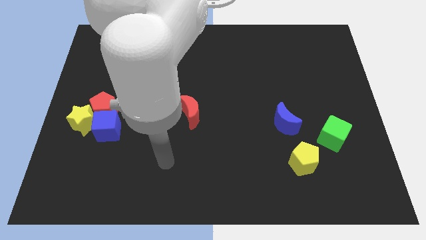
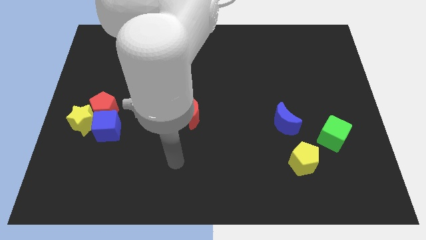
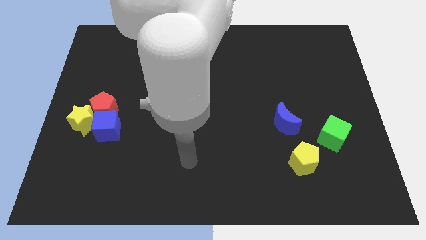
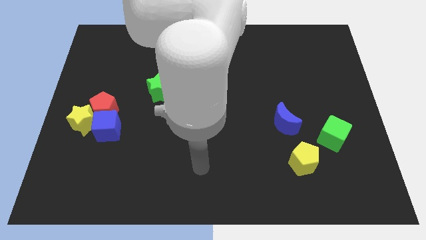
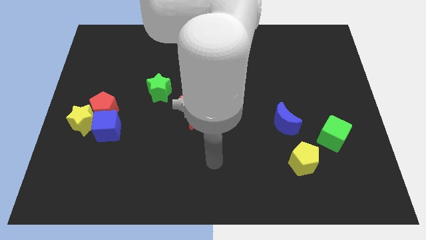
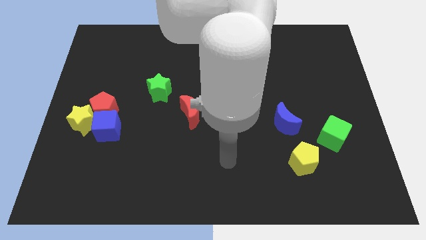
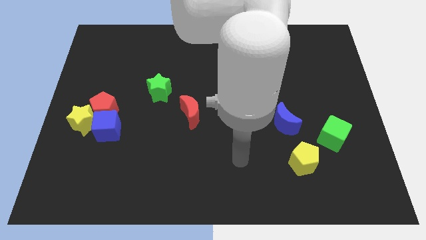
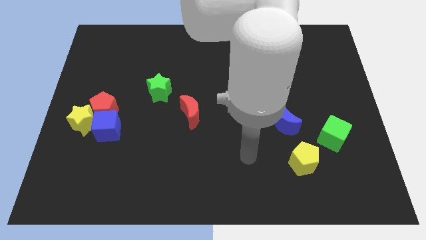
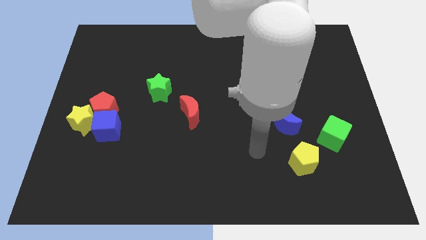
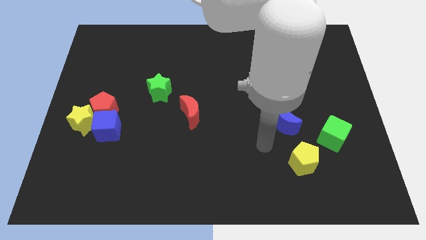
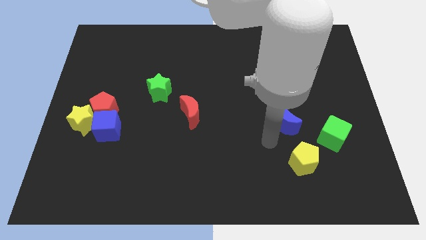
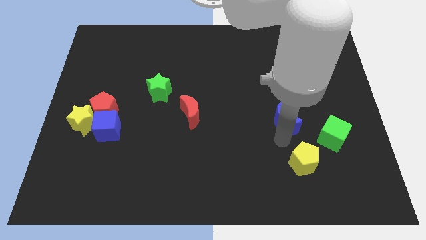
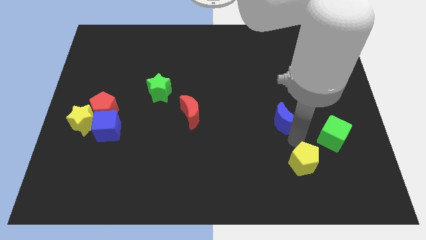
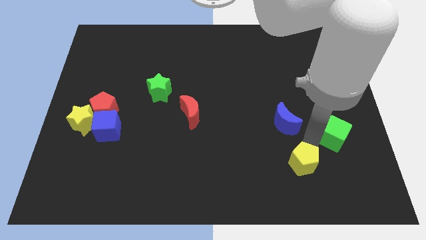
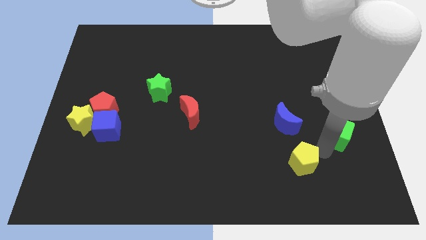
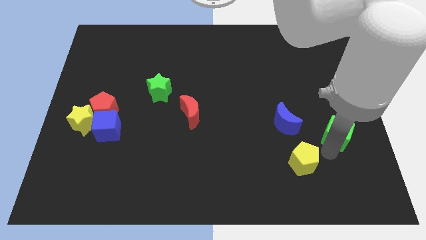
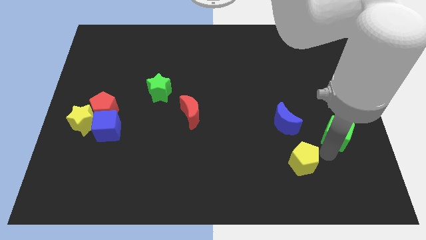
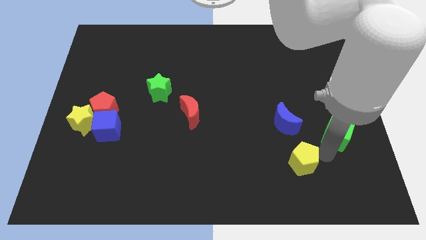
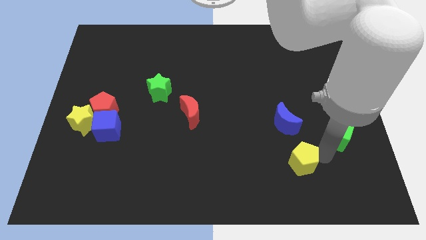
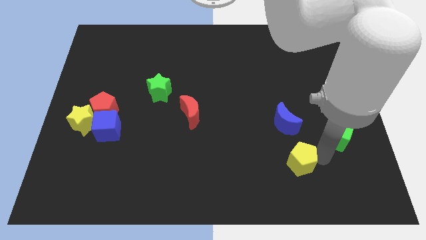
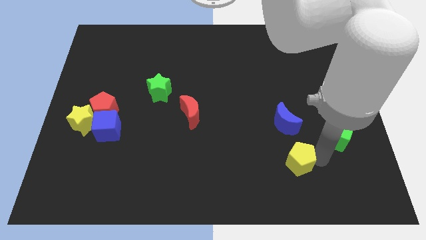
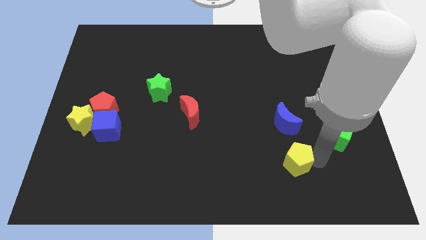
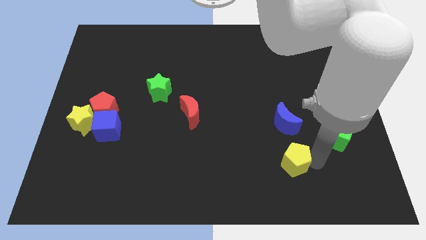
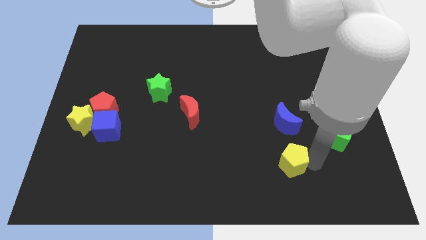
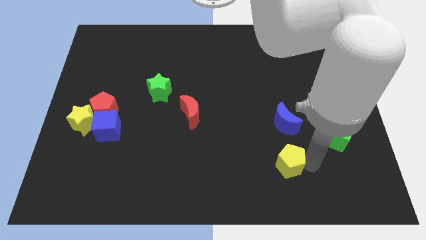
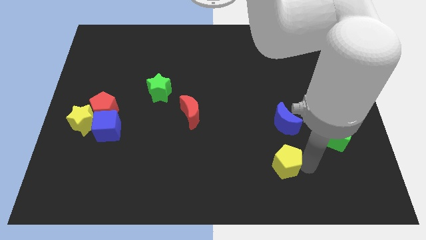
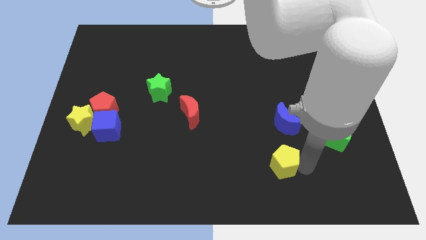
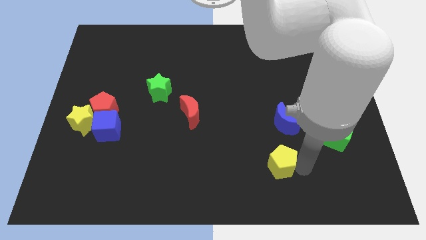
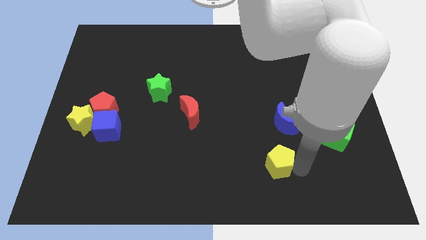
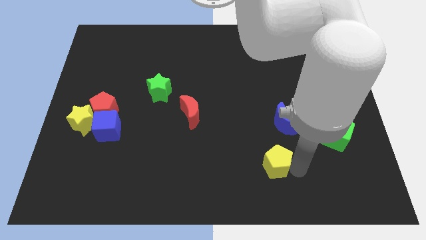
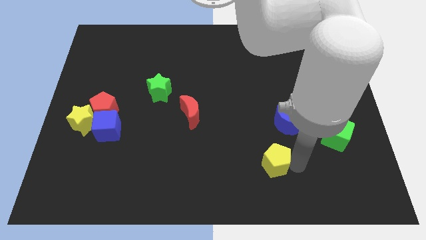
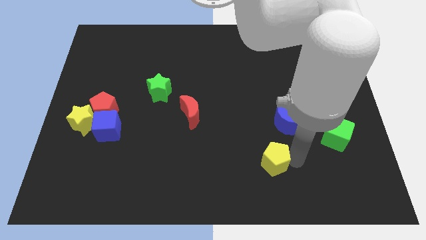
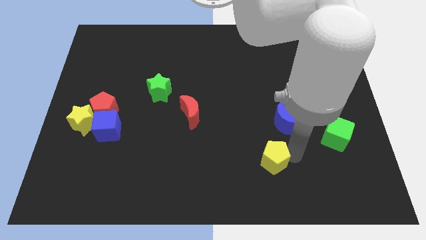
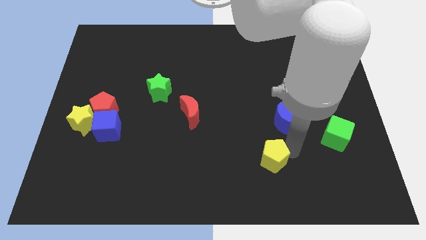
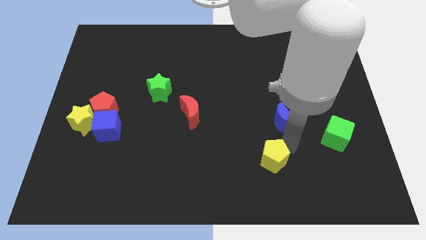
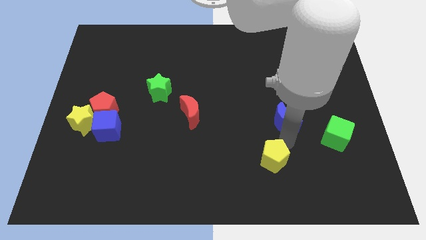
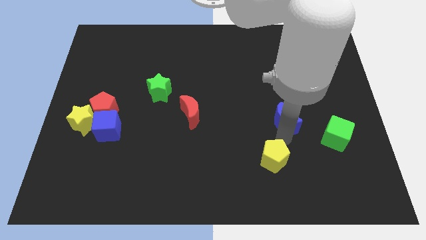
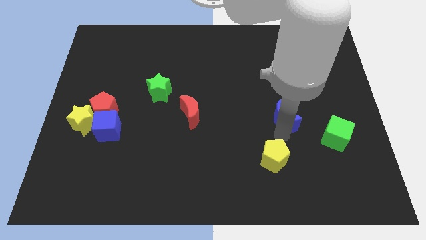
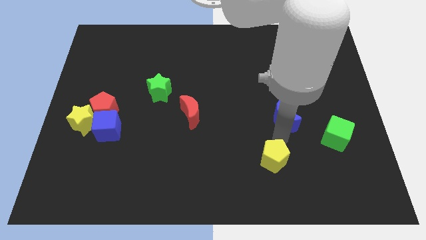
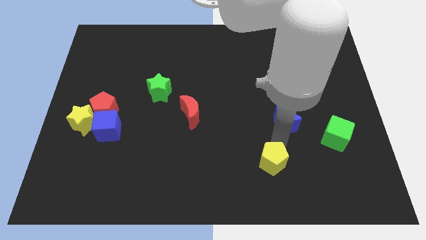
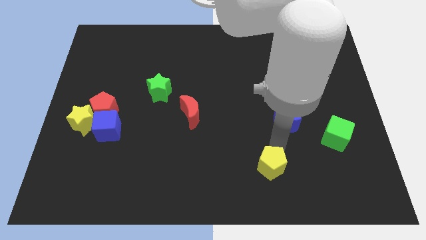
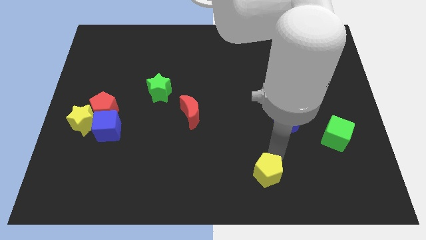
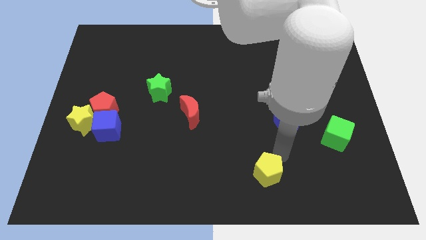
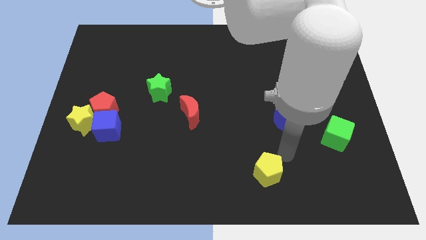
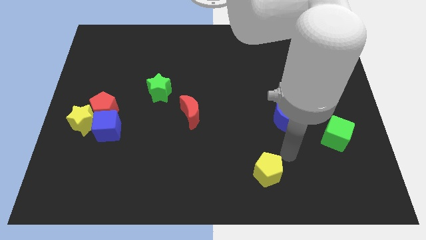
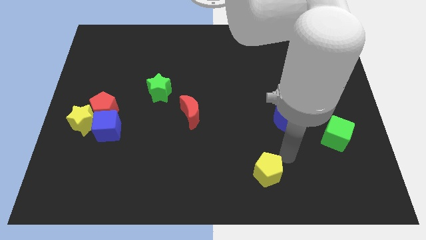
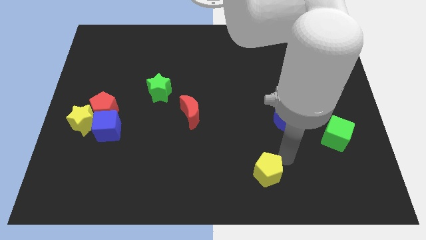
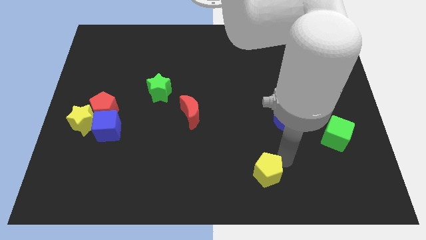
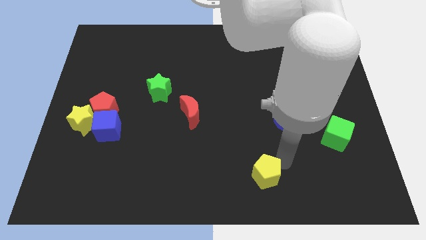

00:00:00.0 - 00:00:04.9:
move the yellow pentagon to the bottom side

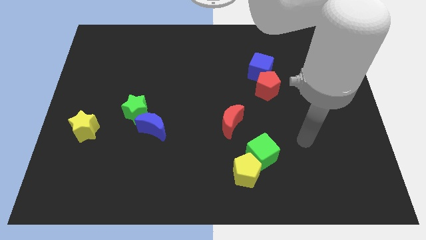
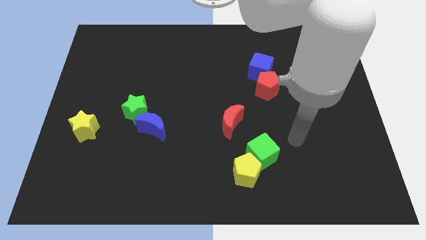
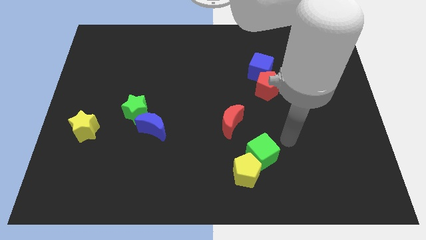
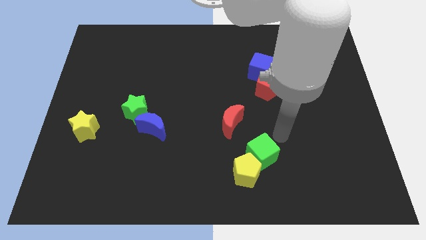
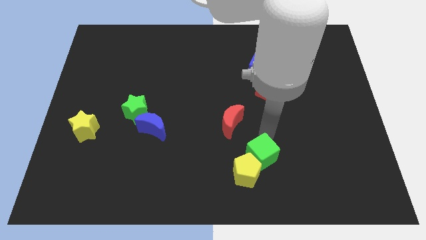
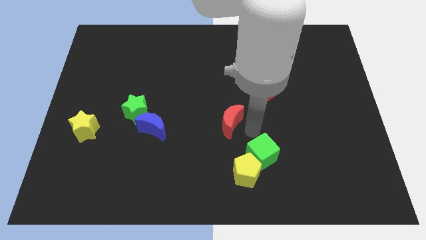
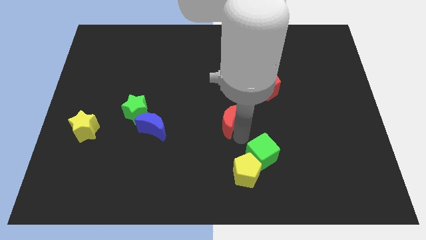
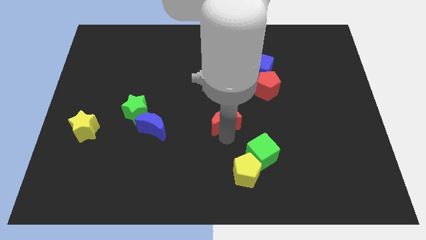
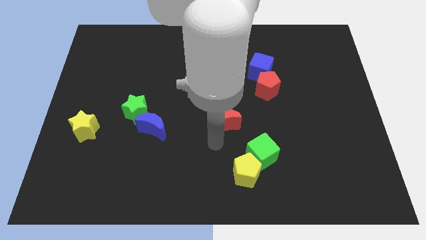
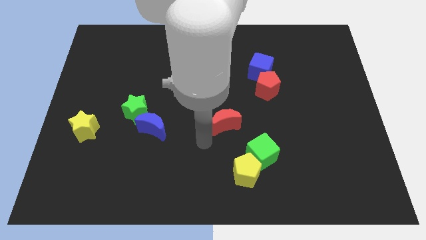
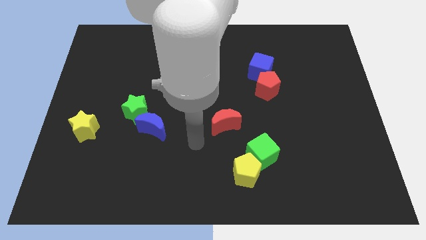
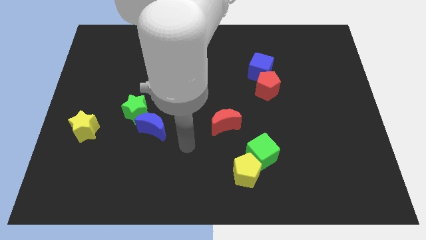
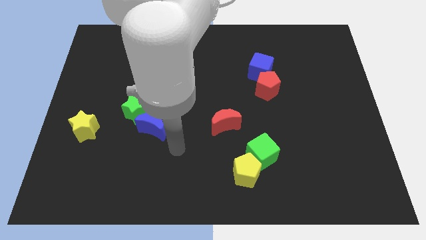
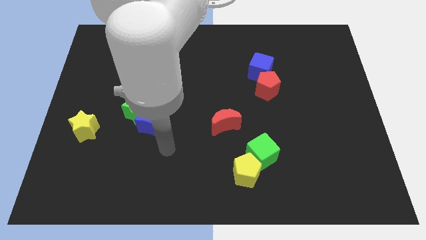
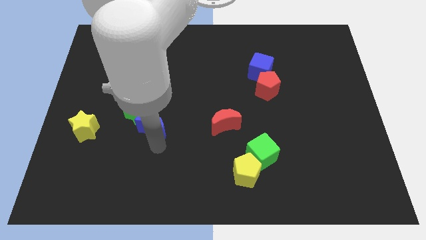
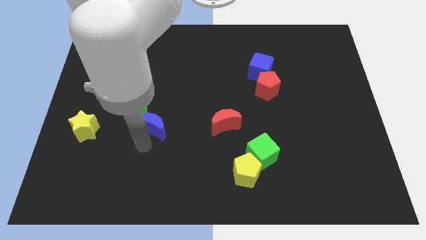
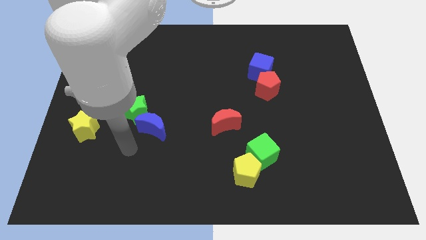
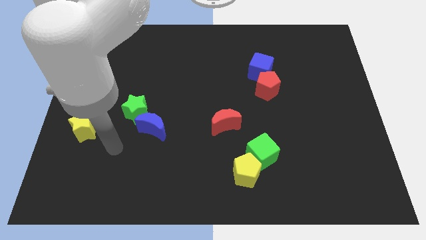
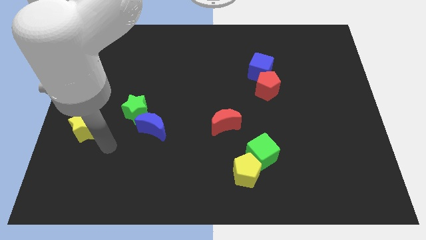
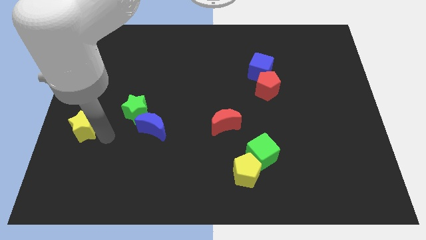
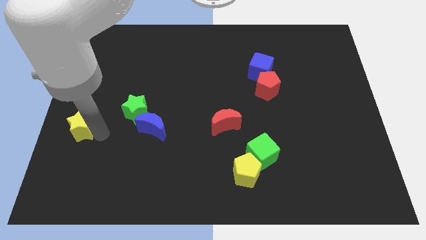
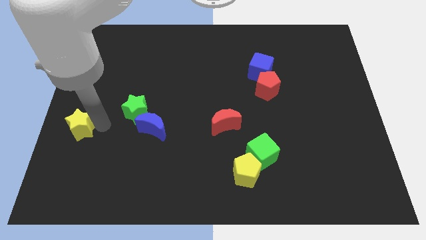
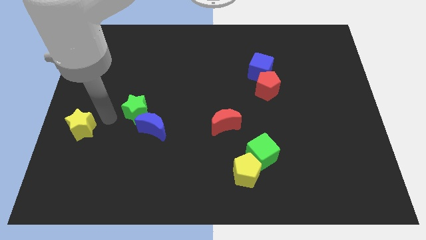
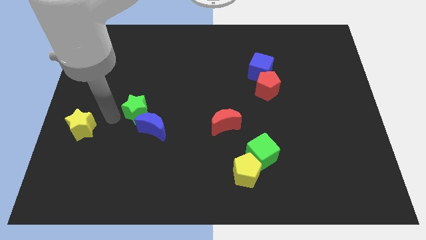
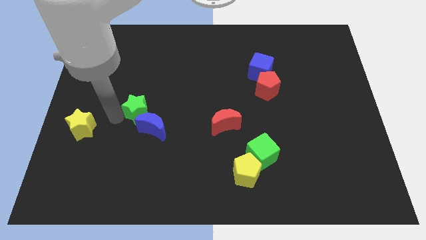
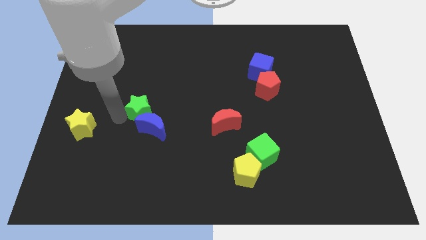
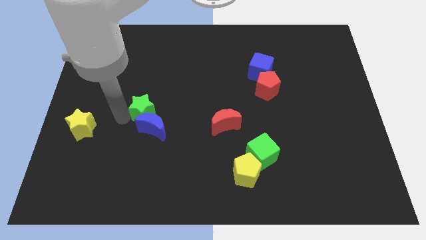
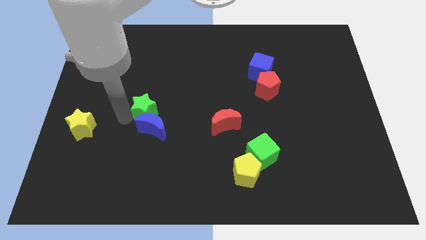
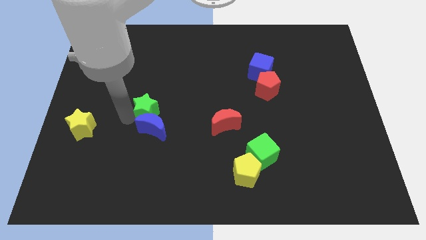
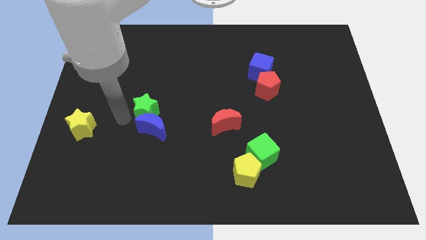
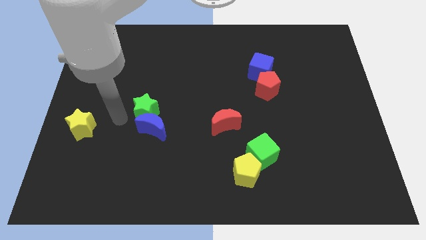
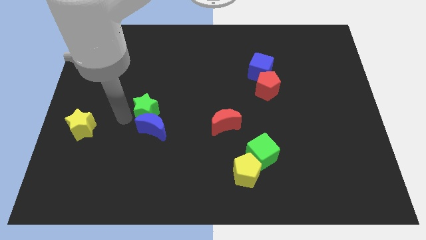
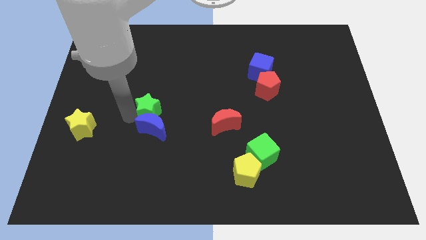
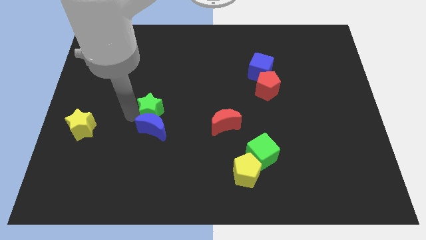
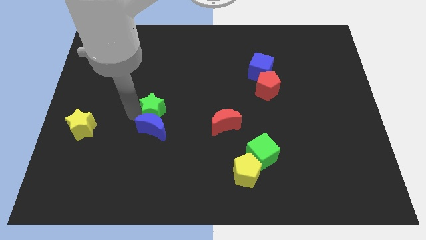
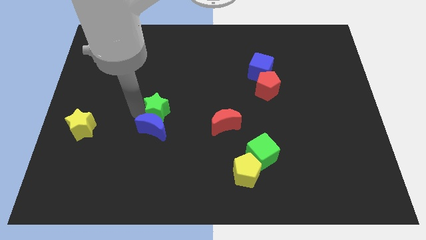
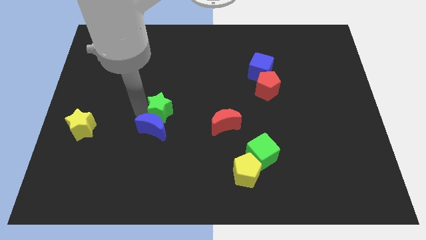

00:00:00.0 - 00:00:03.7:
move the green star to the center

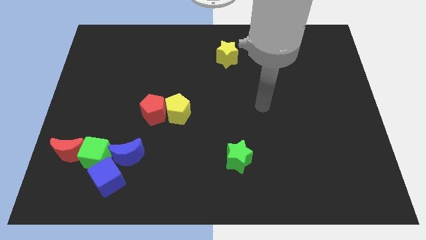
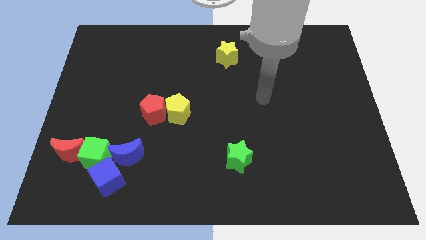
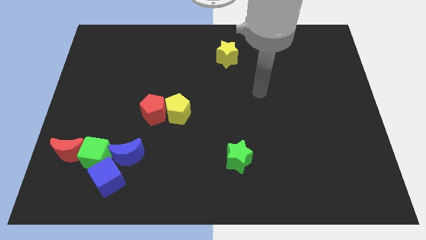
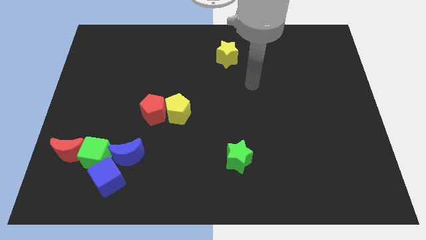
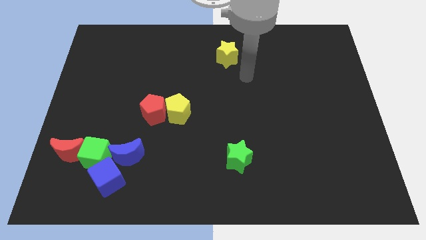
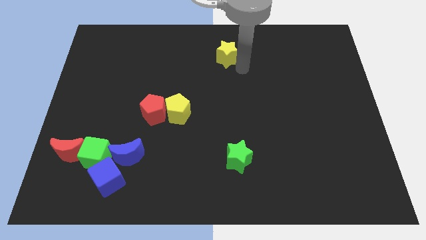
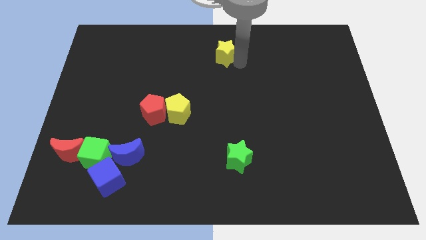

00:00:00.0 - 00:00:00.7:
move the yellow star to the top side
